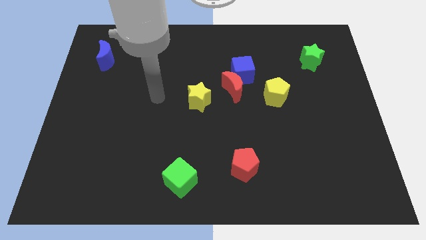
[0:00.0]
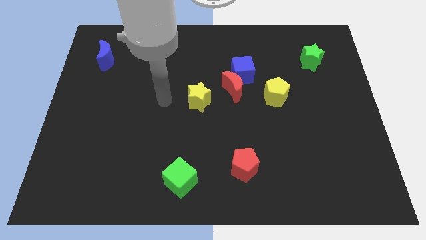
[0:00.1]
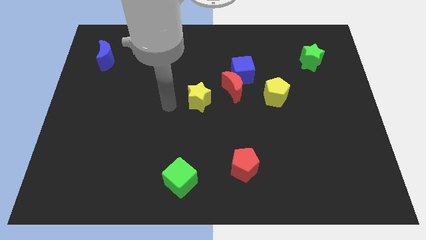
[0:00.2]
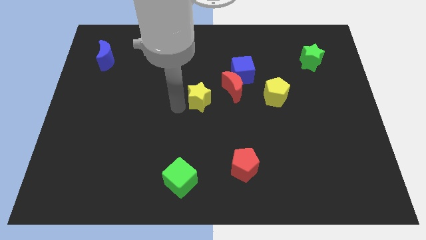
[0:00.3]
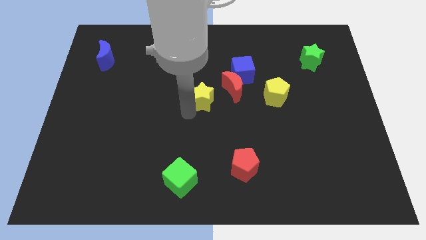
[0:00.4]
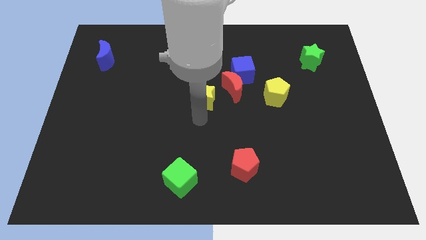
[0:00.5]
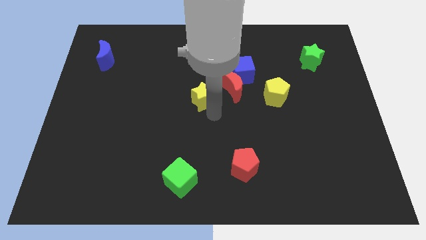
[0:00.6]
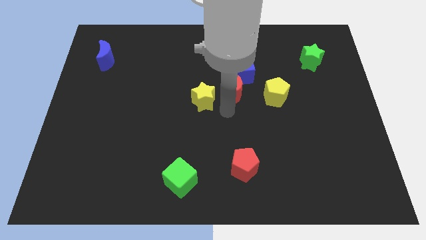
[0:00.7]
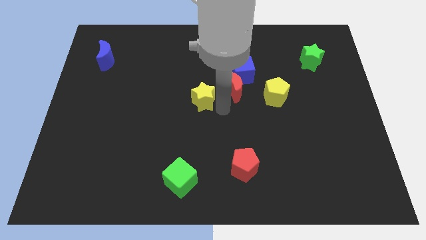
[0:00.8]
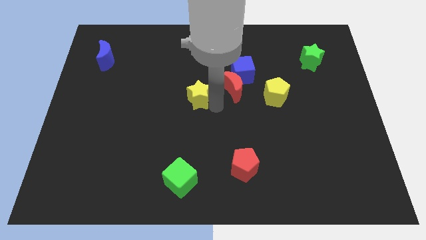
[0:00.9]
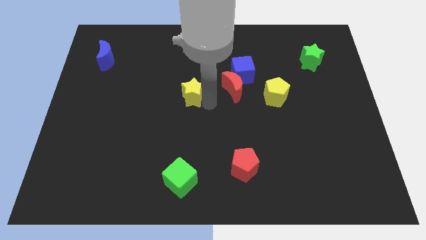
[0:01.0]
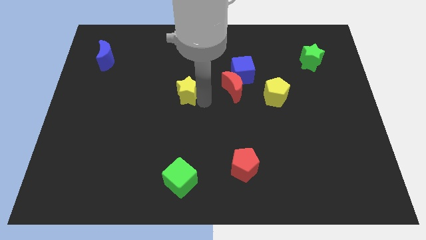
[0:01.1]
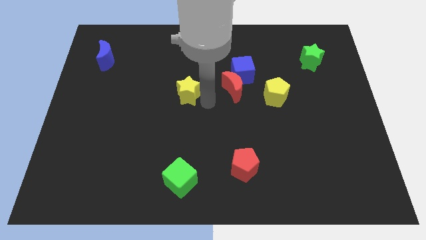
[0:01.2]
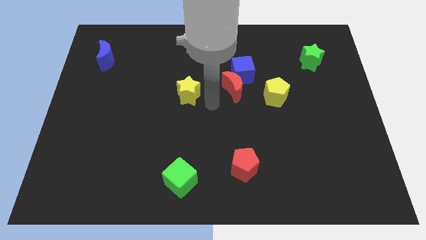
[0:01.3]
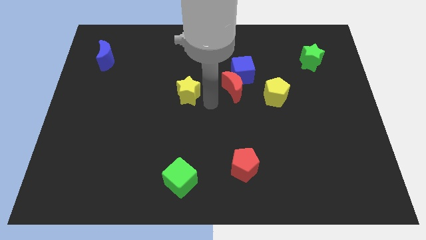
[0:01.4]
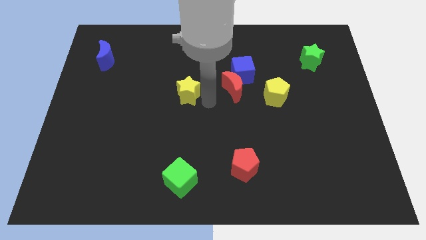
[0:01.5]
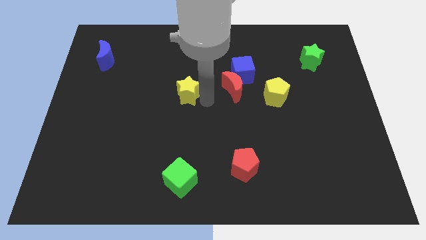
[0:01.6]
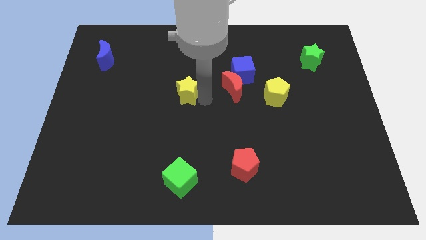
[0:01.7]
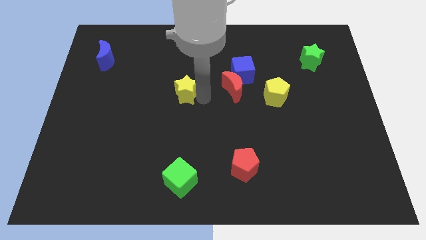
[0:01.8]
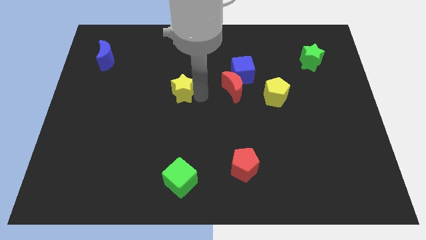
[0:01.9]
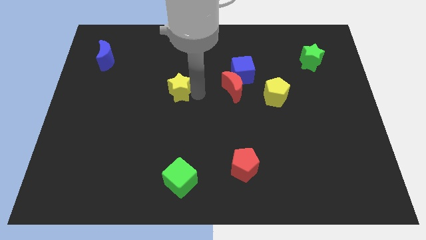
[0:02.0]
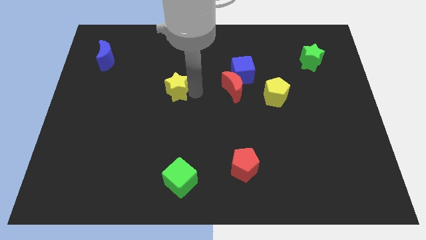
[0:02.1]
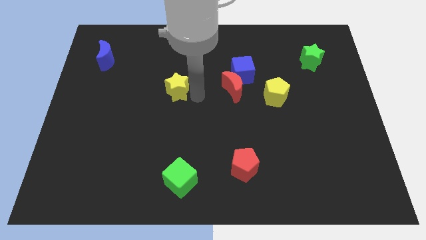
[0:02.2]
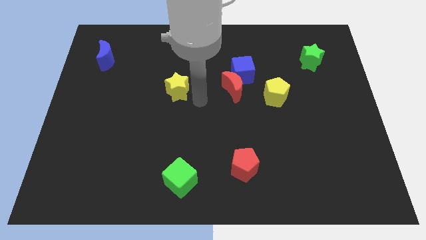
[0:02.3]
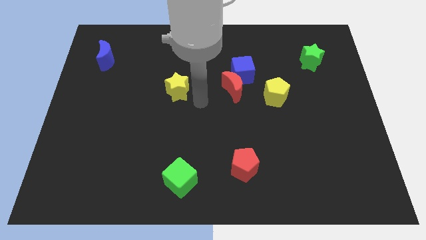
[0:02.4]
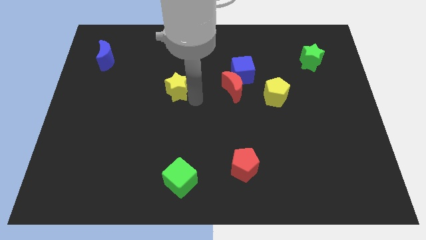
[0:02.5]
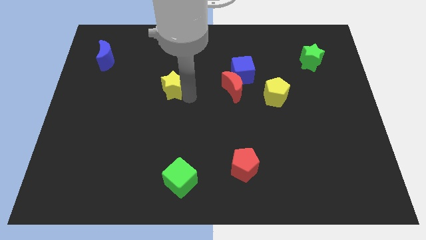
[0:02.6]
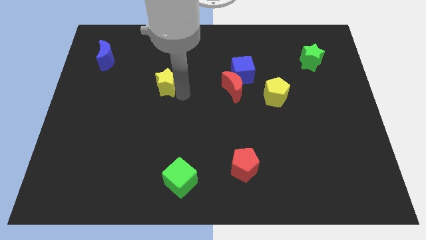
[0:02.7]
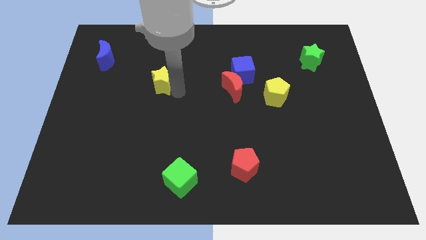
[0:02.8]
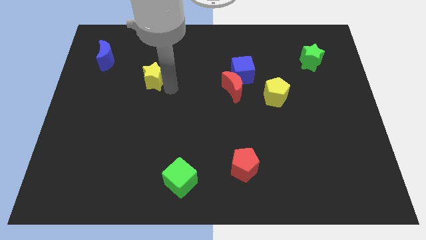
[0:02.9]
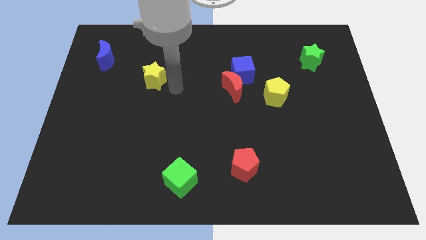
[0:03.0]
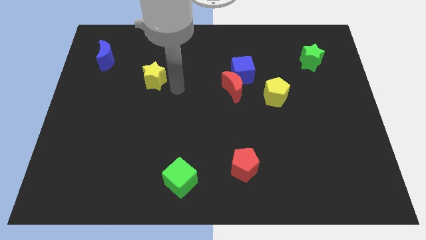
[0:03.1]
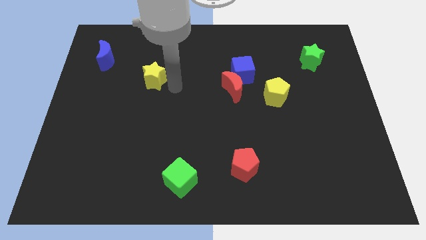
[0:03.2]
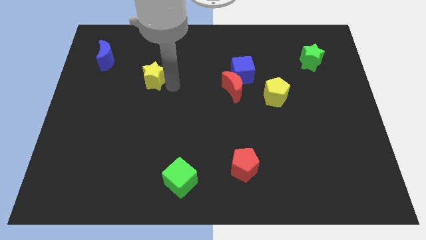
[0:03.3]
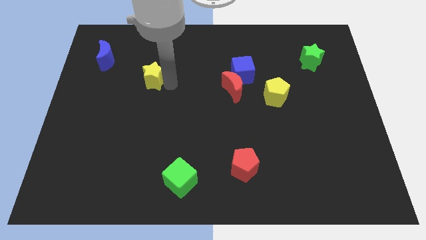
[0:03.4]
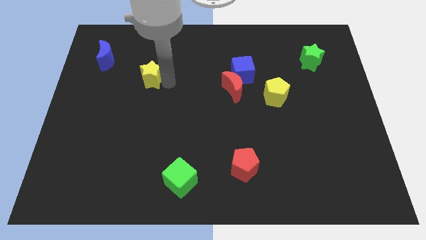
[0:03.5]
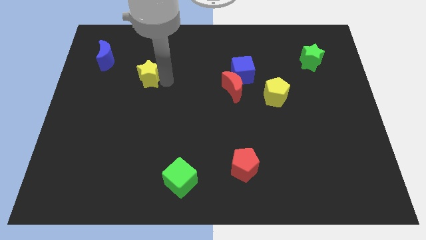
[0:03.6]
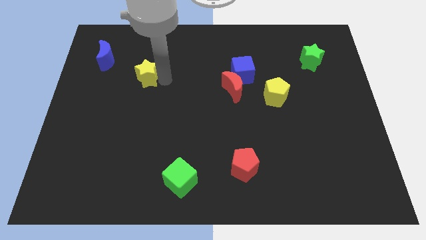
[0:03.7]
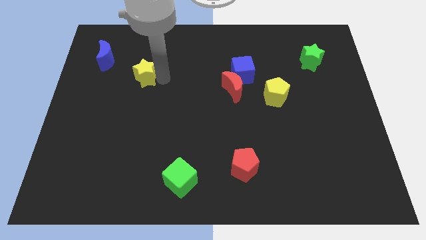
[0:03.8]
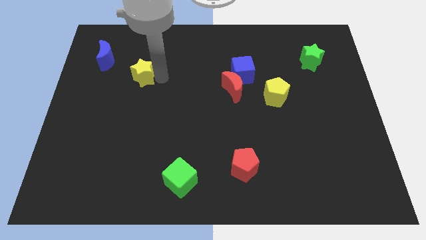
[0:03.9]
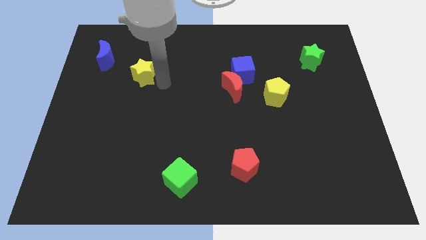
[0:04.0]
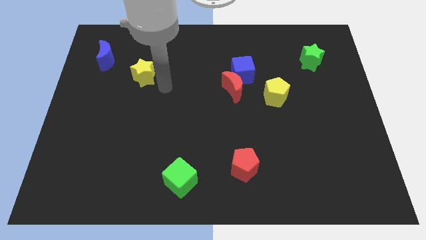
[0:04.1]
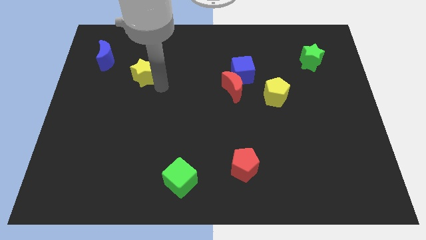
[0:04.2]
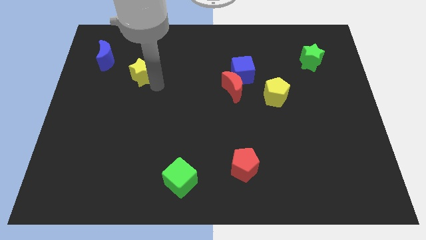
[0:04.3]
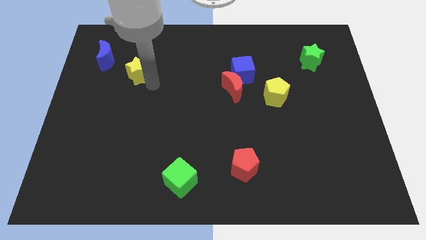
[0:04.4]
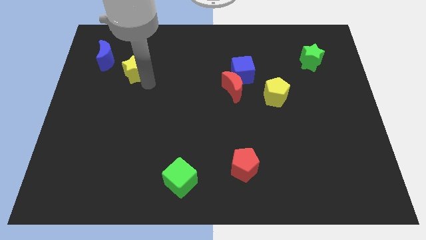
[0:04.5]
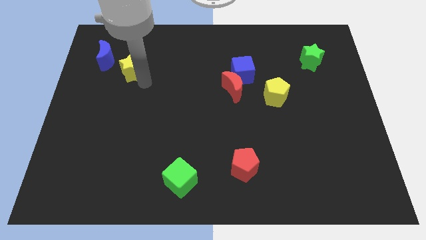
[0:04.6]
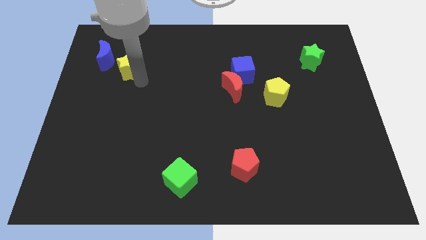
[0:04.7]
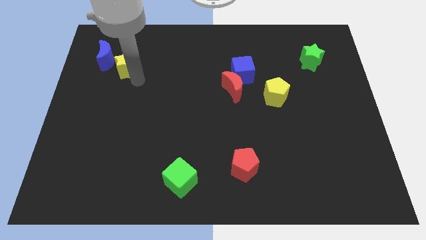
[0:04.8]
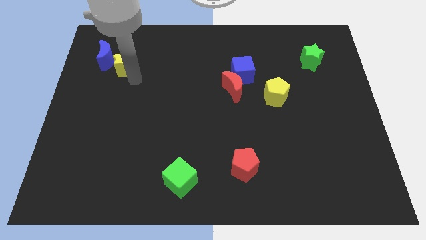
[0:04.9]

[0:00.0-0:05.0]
slide the yellow star next to the blue moon

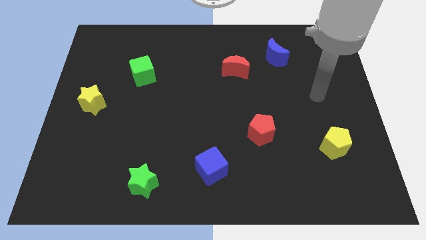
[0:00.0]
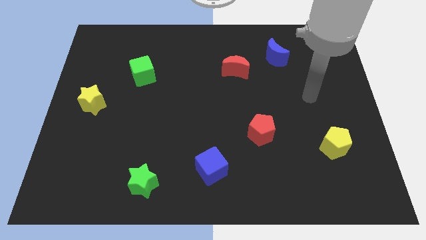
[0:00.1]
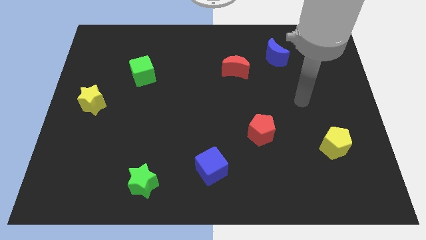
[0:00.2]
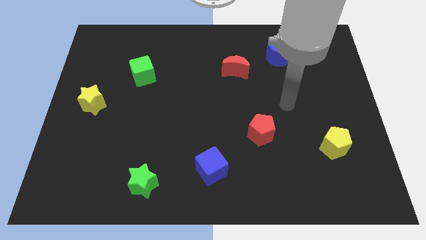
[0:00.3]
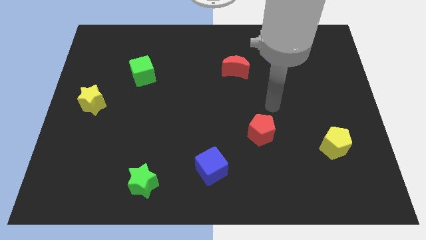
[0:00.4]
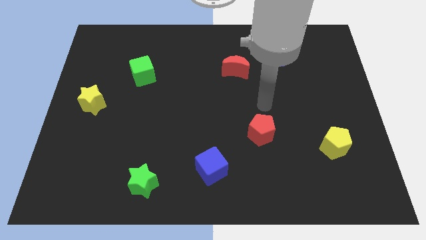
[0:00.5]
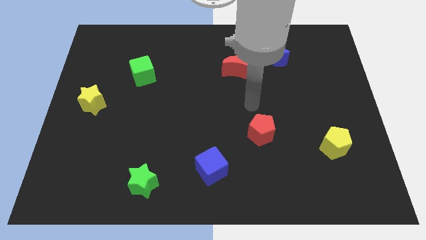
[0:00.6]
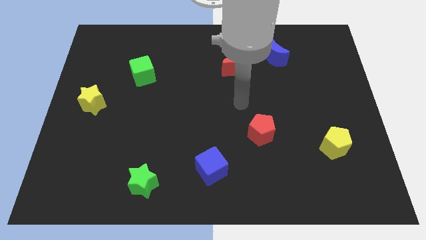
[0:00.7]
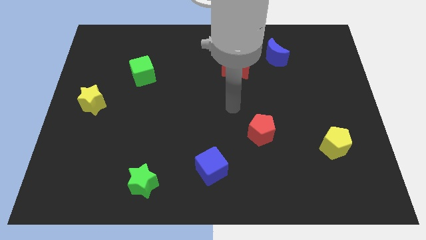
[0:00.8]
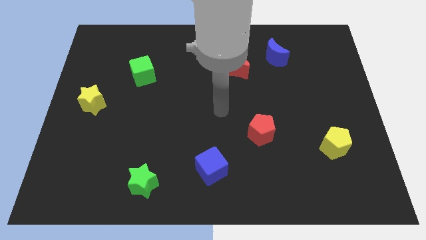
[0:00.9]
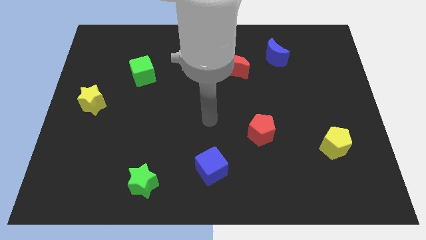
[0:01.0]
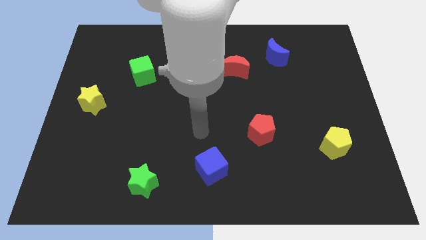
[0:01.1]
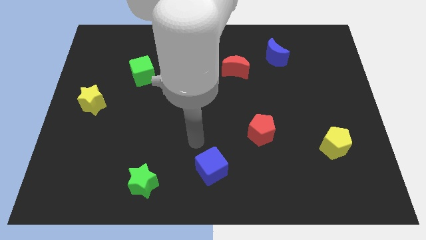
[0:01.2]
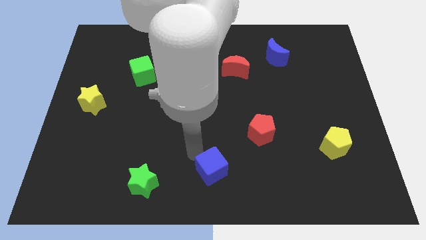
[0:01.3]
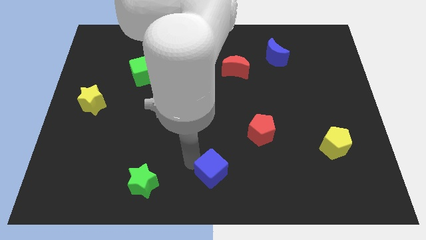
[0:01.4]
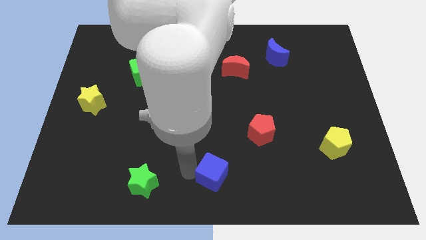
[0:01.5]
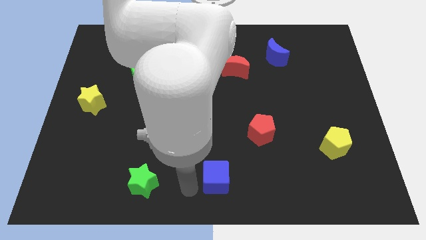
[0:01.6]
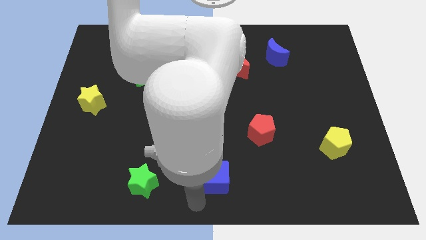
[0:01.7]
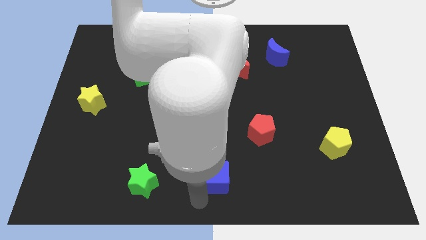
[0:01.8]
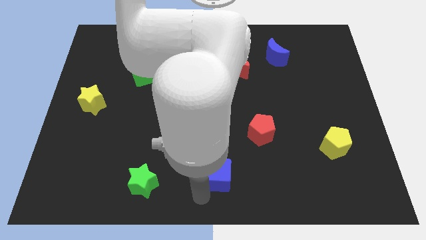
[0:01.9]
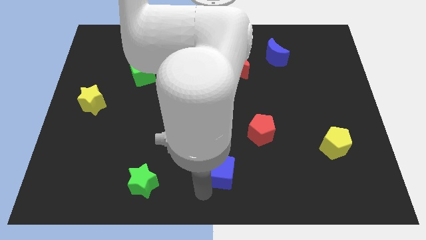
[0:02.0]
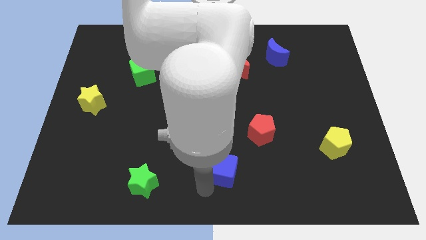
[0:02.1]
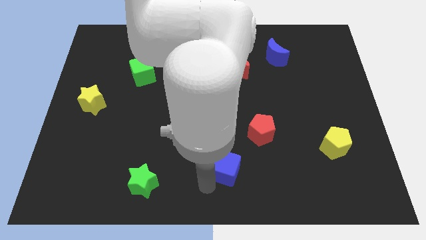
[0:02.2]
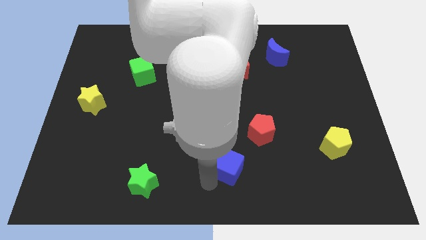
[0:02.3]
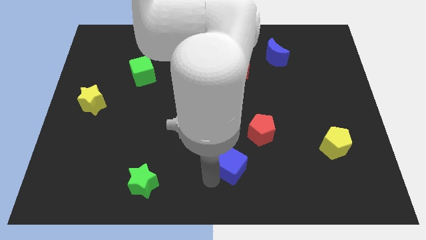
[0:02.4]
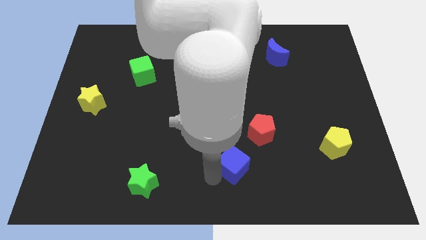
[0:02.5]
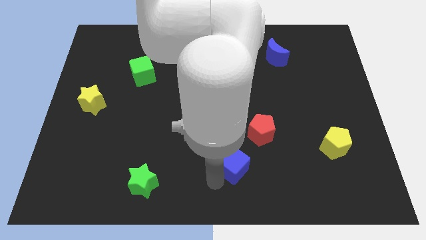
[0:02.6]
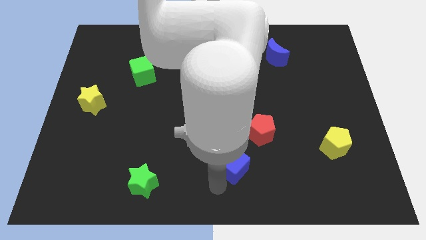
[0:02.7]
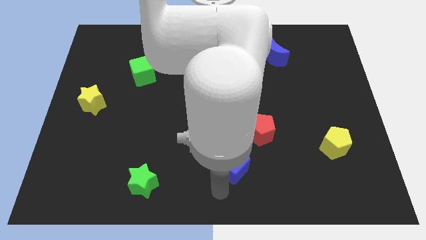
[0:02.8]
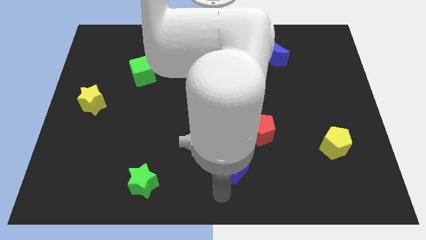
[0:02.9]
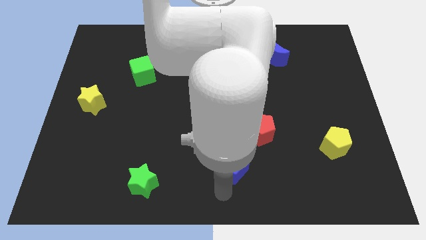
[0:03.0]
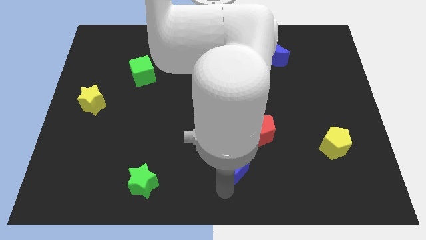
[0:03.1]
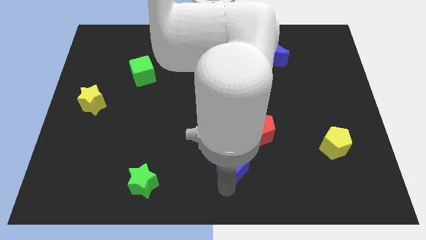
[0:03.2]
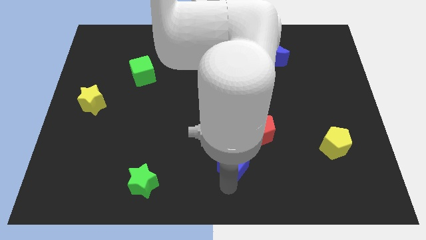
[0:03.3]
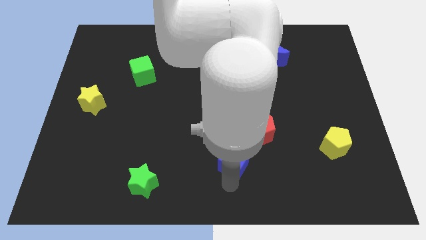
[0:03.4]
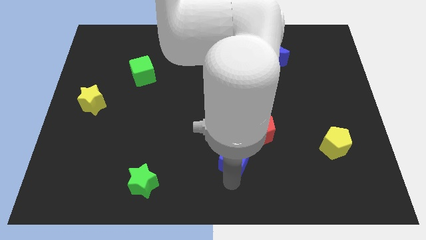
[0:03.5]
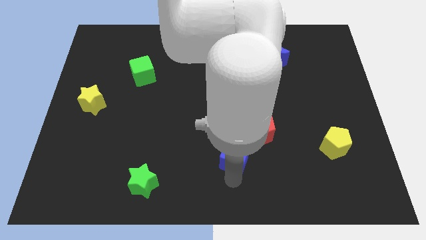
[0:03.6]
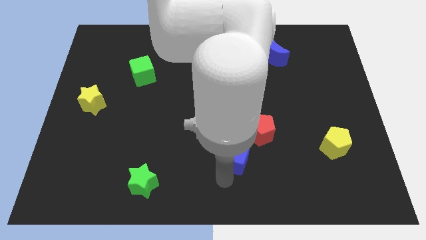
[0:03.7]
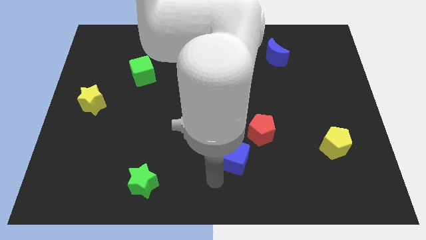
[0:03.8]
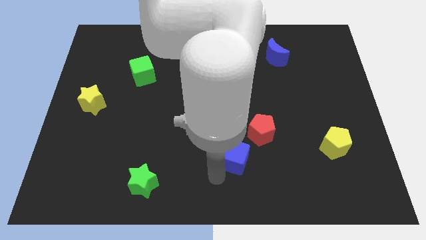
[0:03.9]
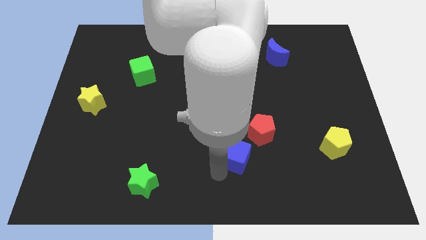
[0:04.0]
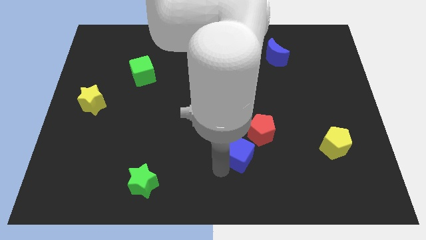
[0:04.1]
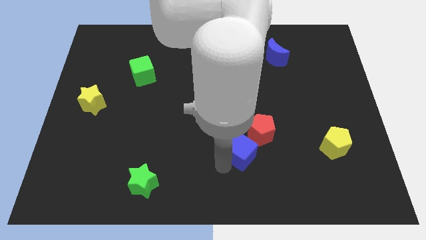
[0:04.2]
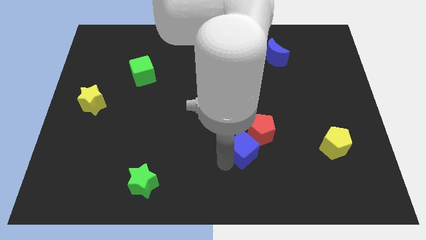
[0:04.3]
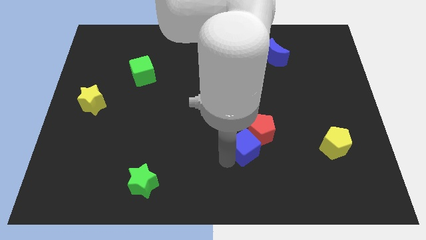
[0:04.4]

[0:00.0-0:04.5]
slide the blue cube close to the red pentagon
